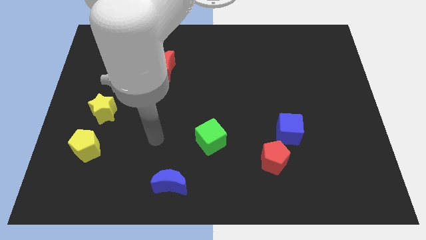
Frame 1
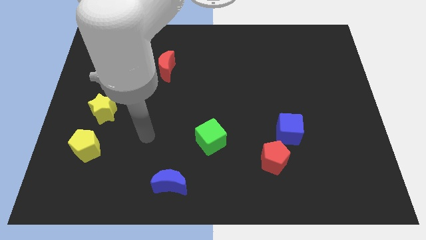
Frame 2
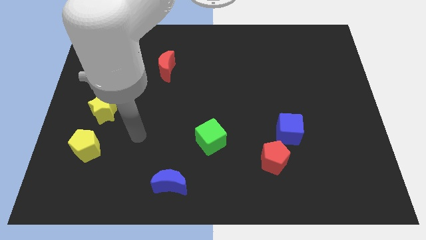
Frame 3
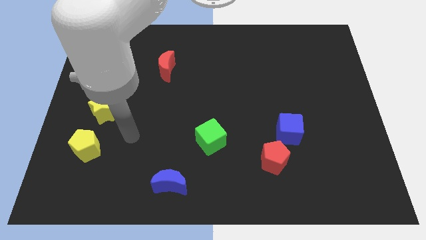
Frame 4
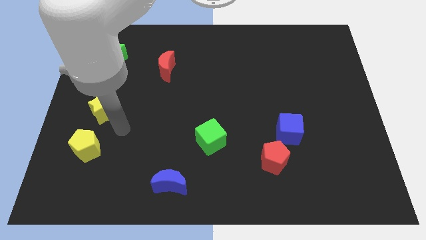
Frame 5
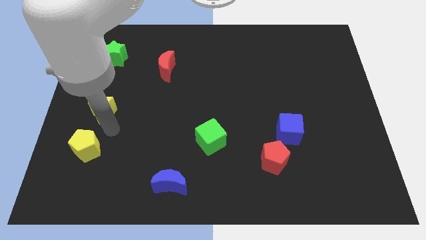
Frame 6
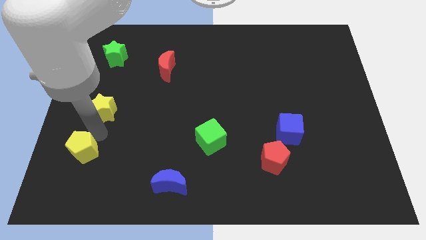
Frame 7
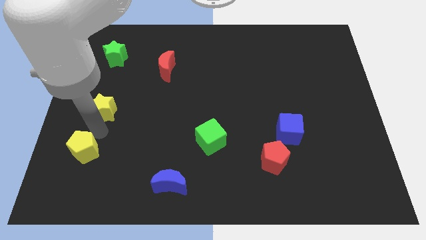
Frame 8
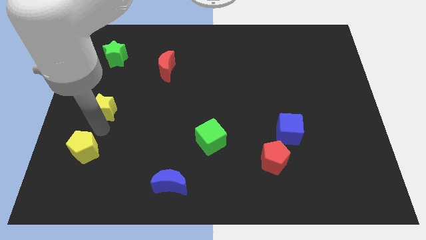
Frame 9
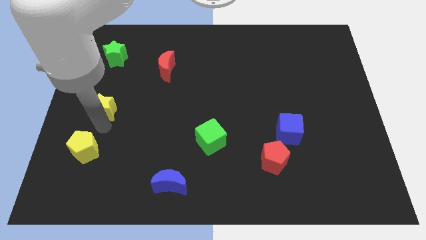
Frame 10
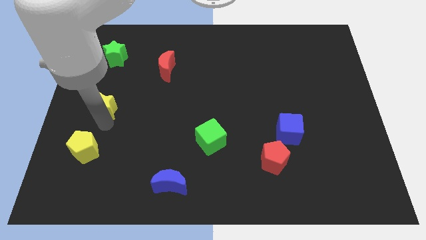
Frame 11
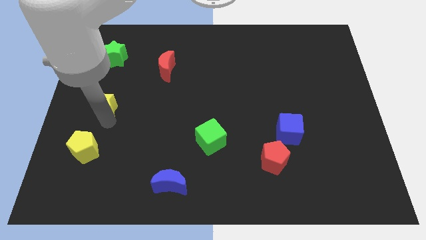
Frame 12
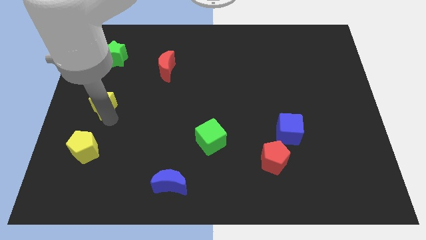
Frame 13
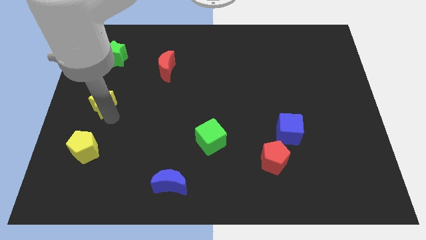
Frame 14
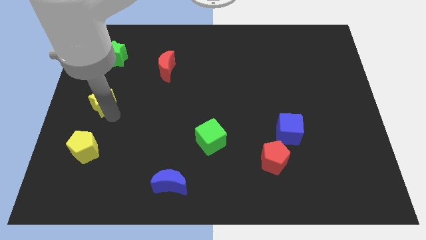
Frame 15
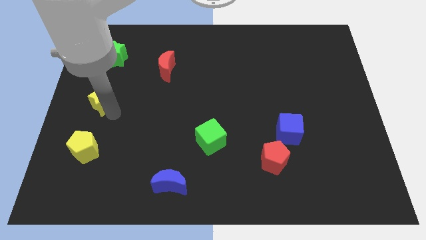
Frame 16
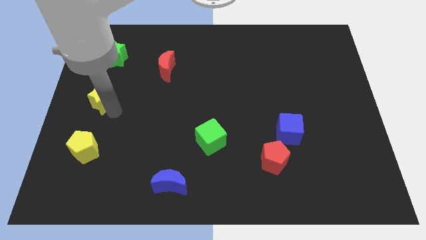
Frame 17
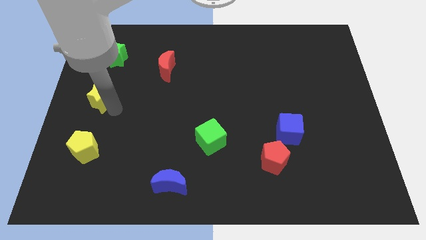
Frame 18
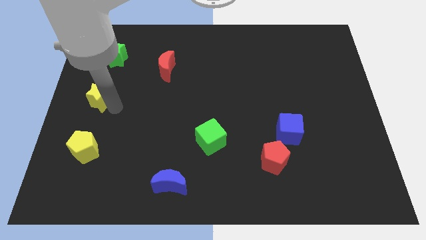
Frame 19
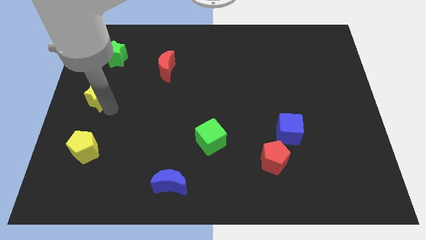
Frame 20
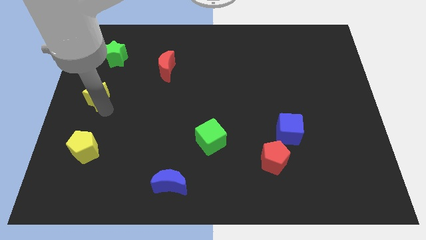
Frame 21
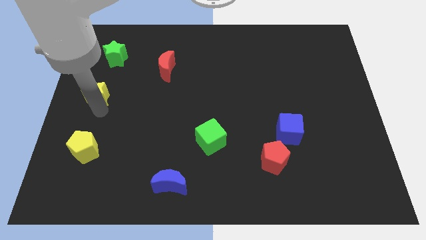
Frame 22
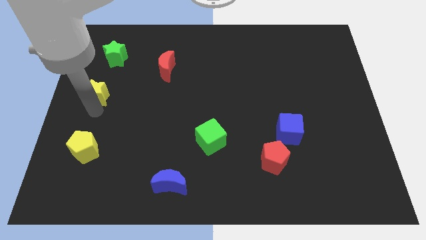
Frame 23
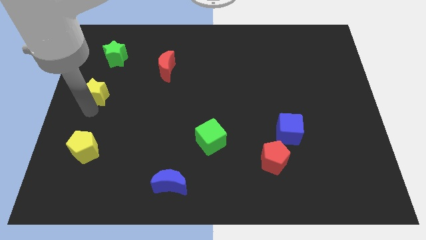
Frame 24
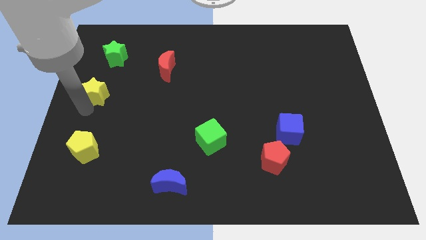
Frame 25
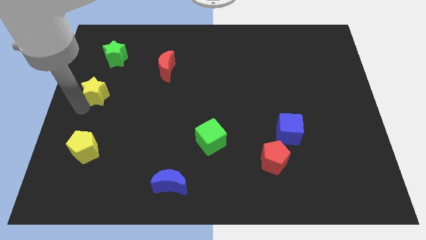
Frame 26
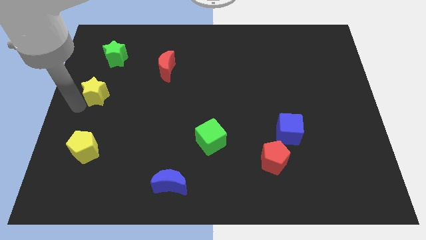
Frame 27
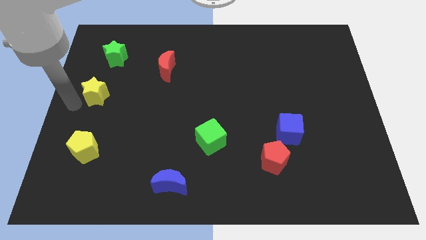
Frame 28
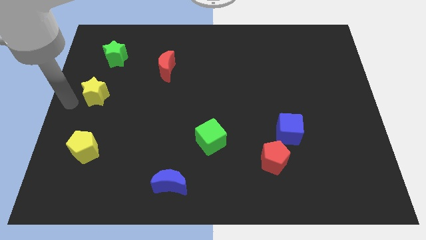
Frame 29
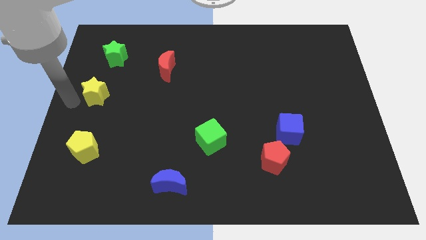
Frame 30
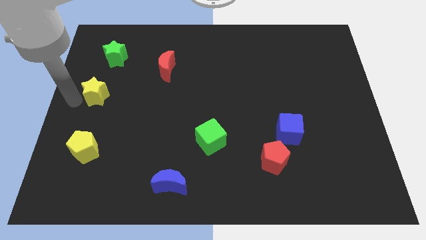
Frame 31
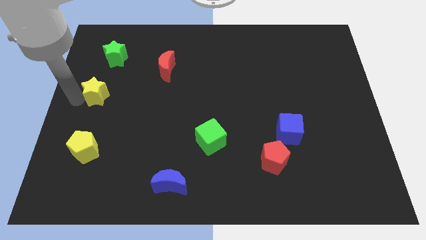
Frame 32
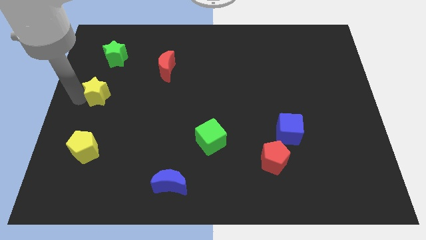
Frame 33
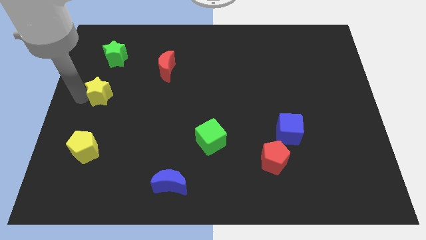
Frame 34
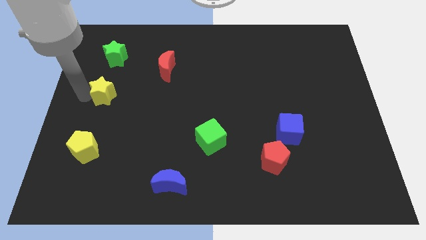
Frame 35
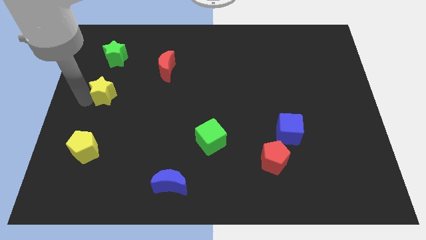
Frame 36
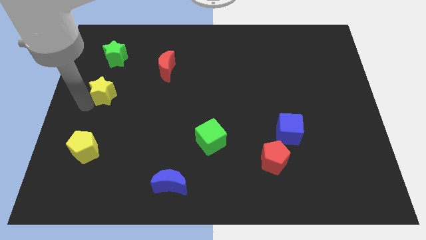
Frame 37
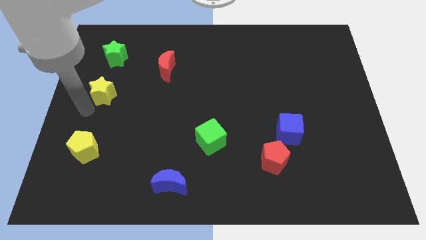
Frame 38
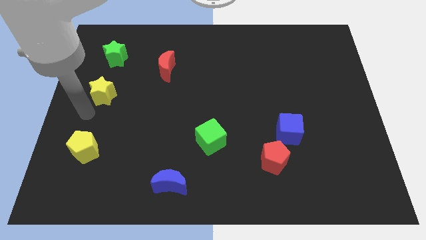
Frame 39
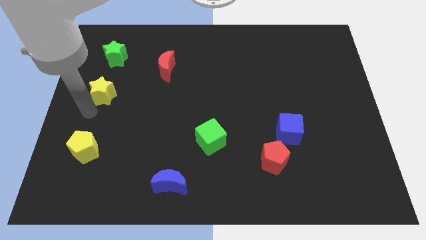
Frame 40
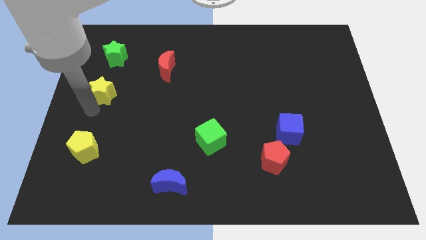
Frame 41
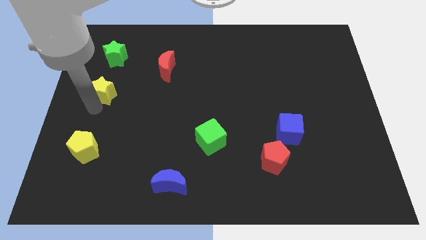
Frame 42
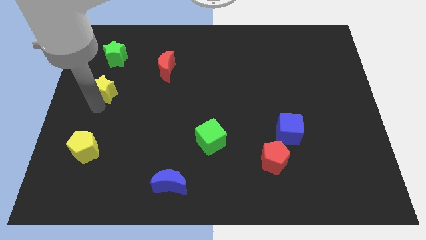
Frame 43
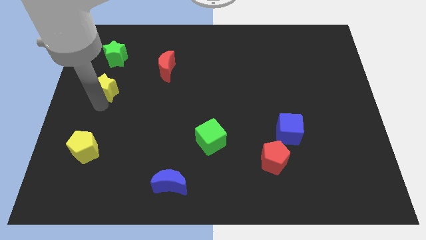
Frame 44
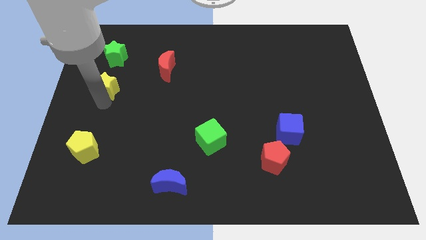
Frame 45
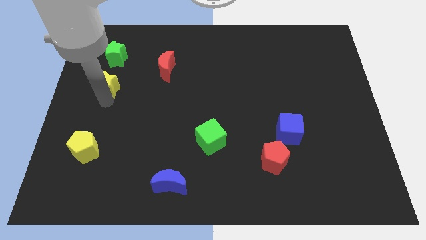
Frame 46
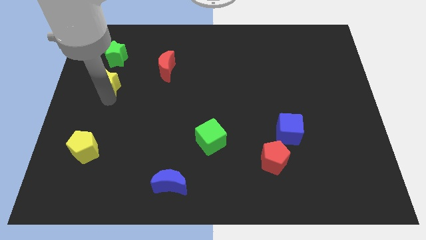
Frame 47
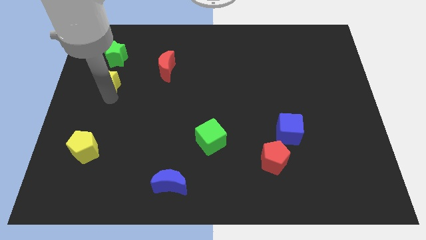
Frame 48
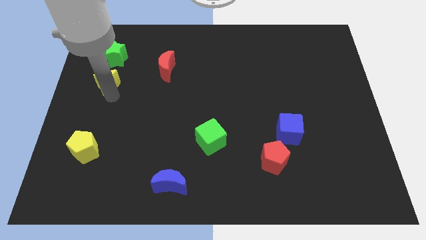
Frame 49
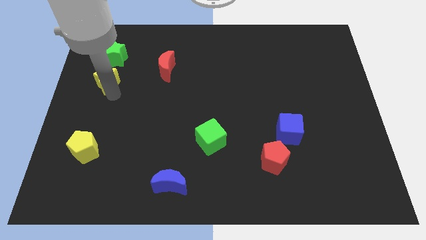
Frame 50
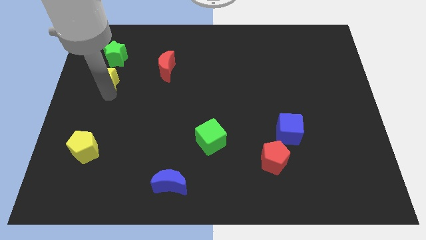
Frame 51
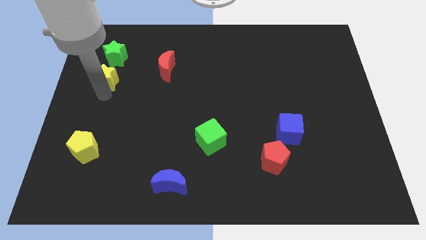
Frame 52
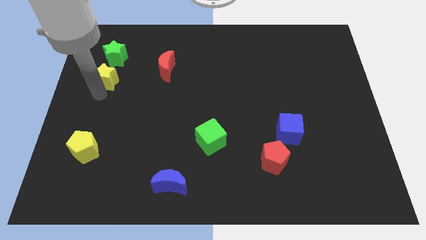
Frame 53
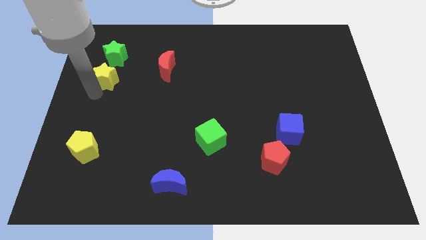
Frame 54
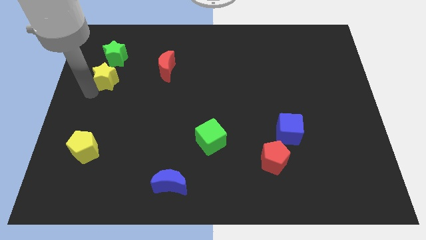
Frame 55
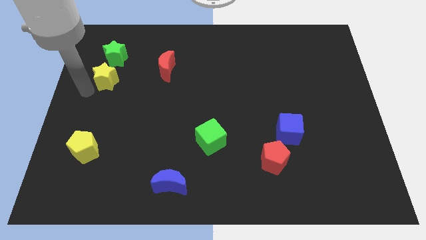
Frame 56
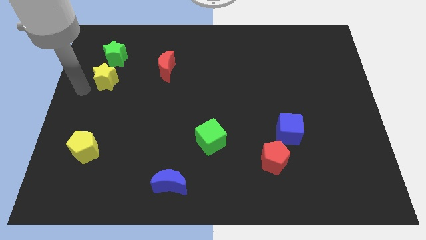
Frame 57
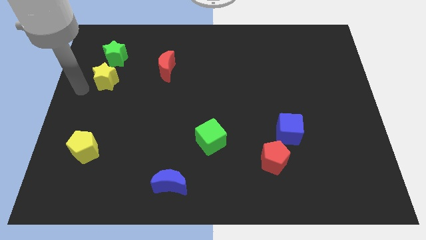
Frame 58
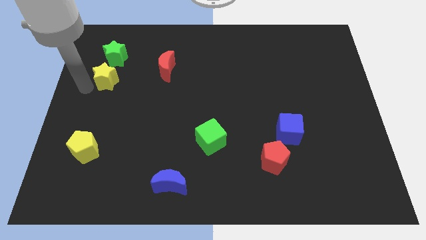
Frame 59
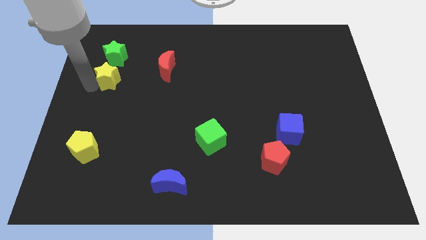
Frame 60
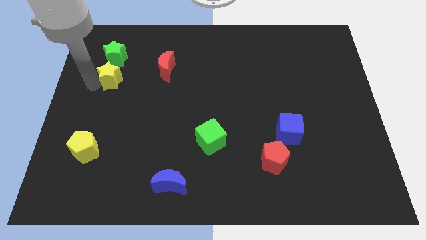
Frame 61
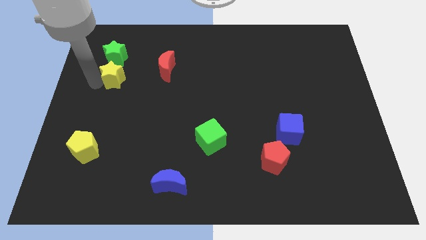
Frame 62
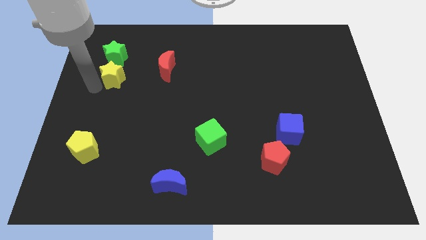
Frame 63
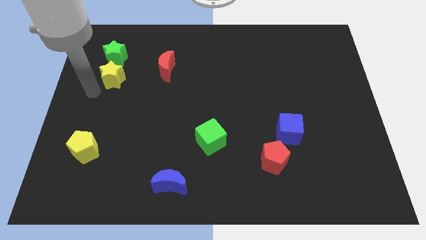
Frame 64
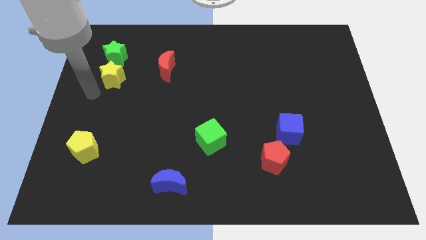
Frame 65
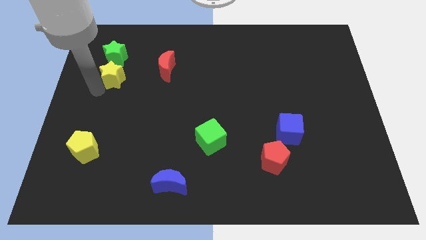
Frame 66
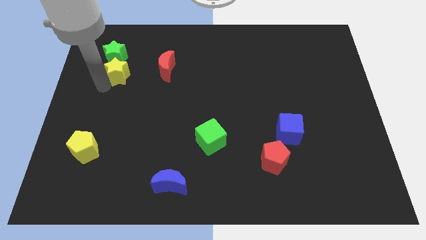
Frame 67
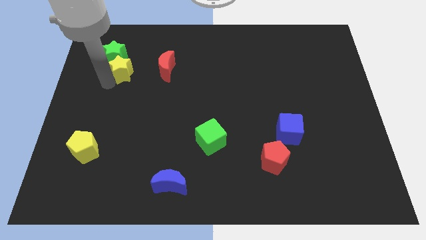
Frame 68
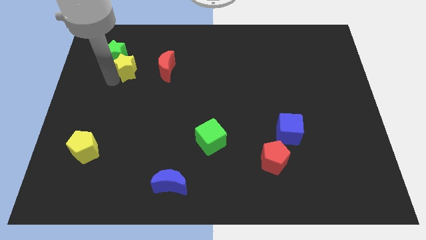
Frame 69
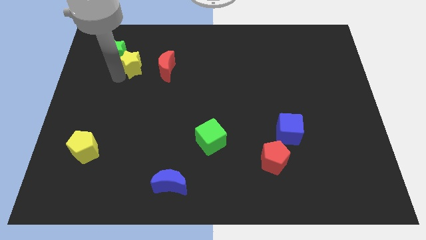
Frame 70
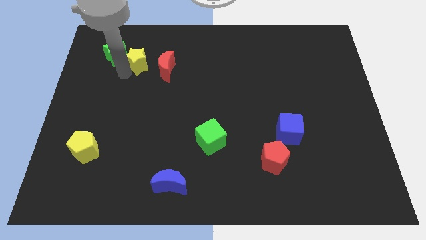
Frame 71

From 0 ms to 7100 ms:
slide the yellow star to the top left side of the red moon

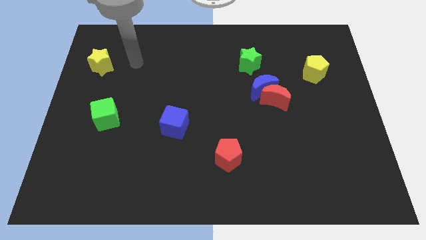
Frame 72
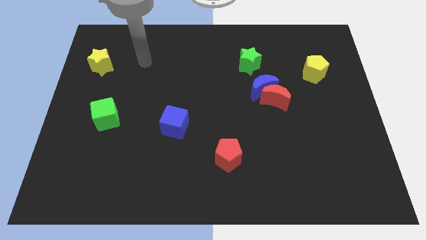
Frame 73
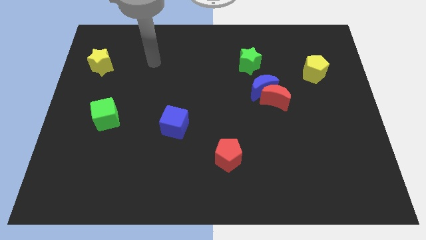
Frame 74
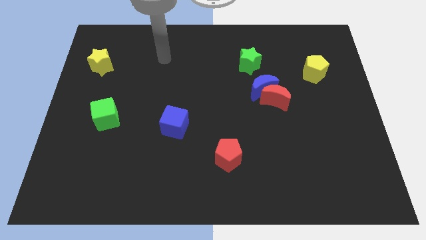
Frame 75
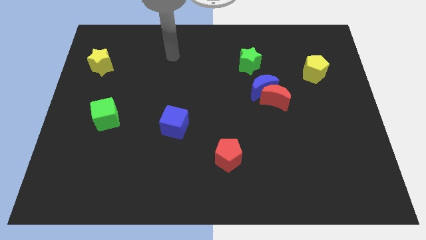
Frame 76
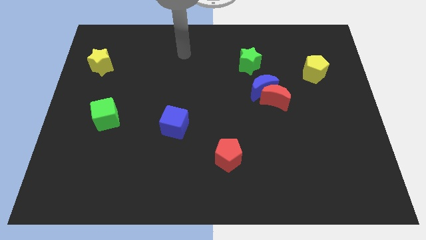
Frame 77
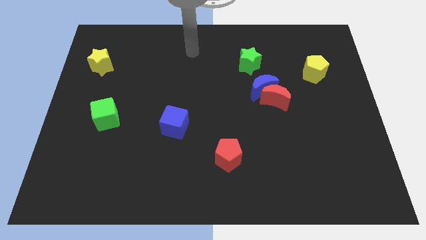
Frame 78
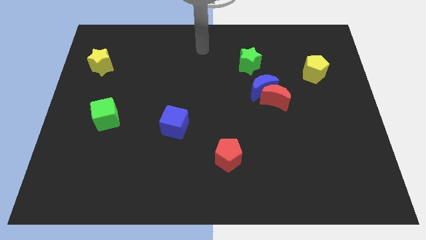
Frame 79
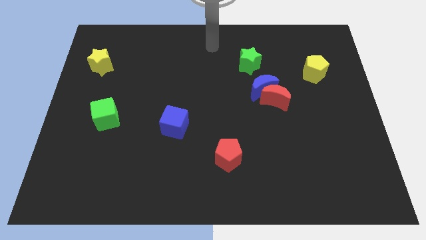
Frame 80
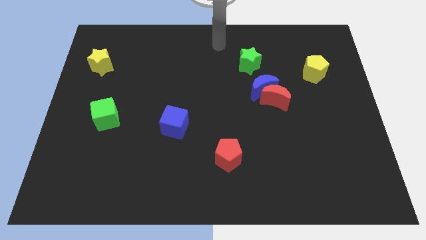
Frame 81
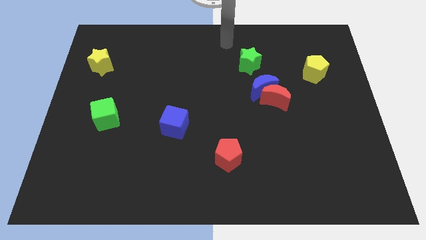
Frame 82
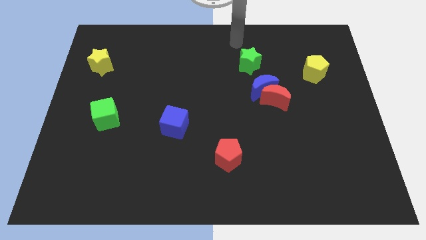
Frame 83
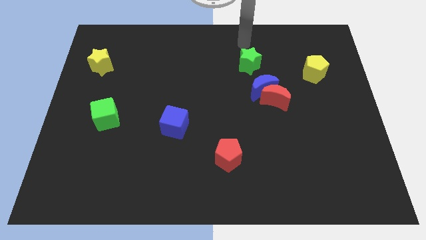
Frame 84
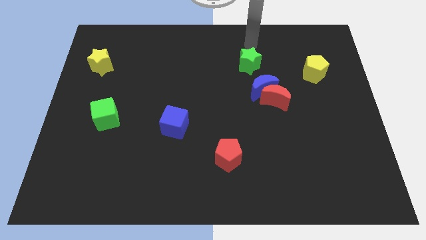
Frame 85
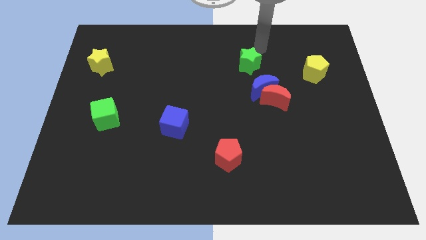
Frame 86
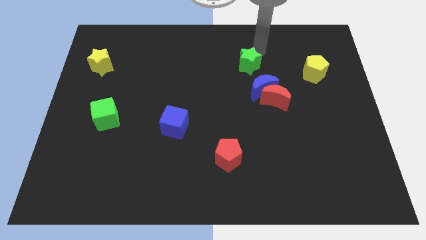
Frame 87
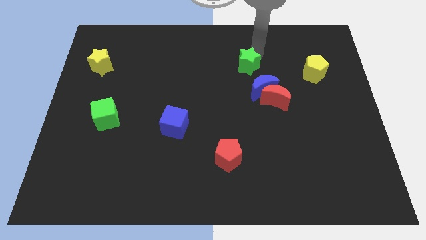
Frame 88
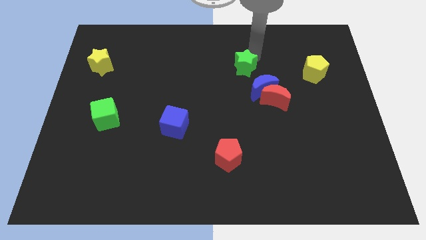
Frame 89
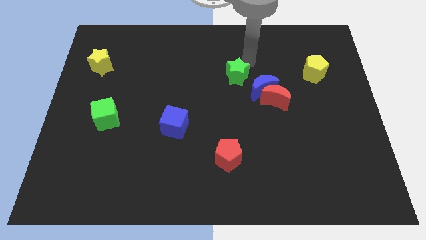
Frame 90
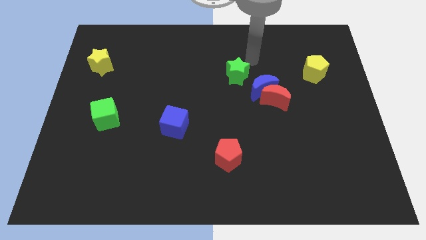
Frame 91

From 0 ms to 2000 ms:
move the green star to the left of the blue moon
